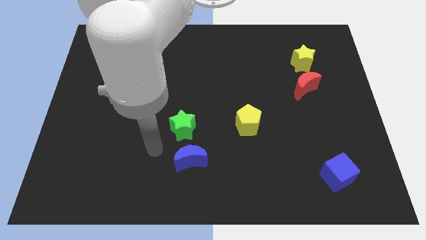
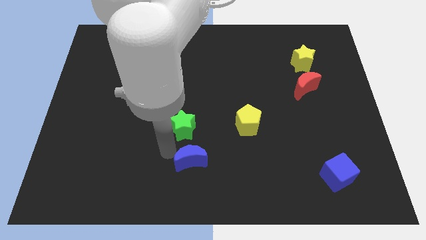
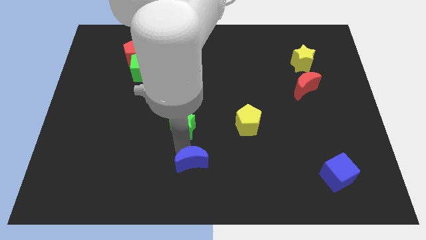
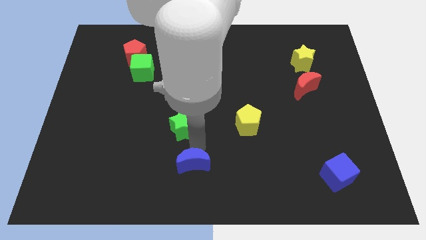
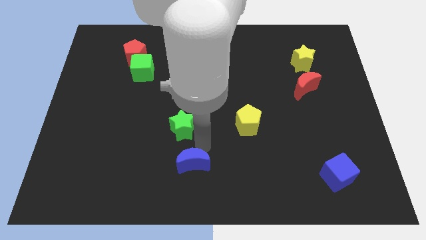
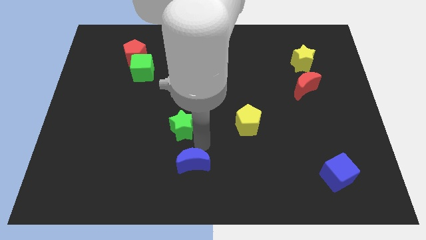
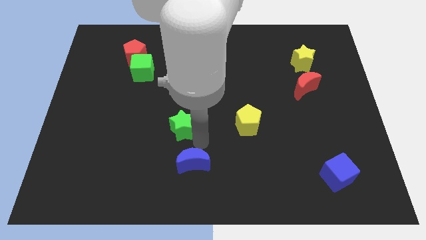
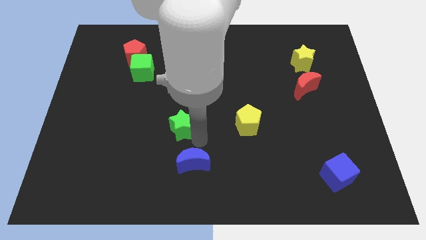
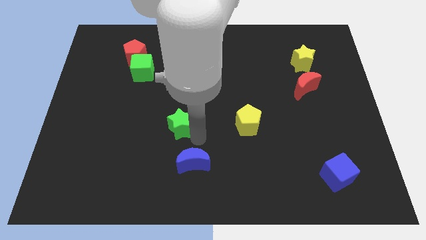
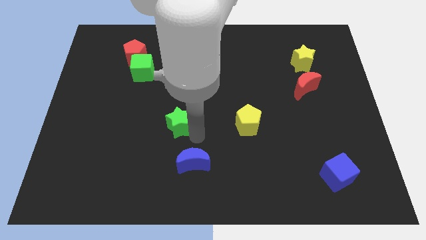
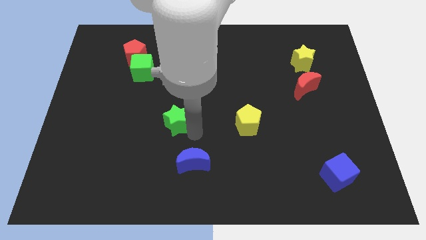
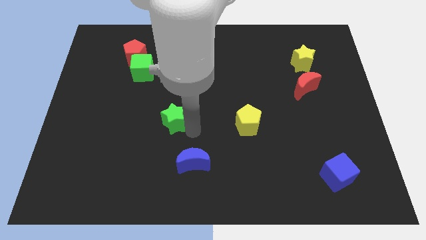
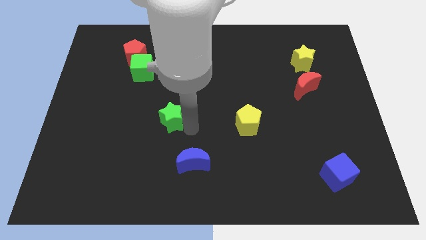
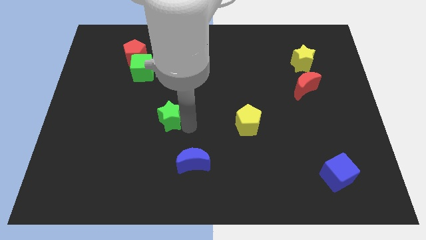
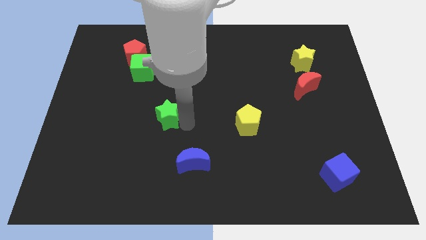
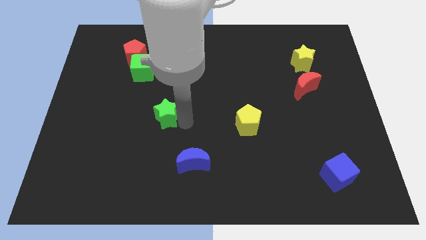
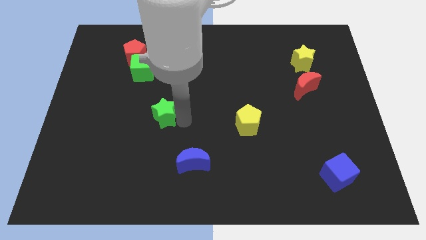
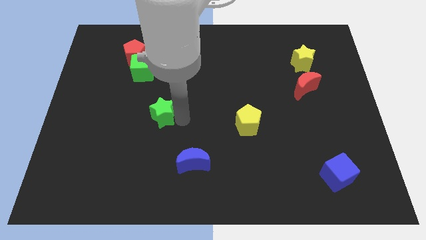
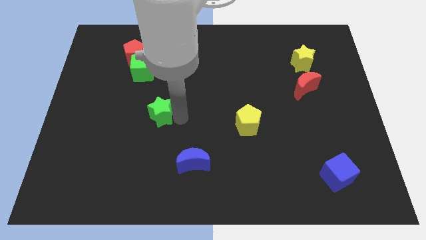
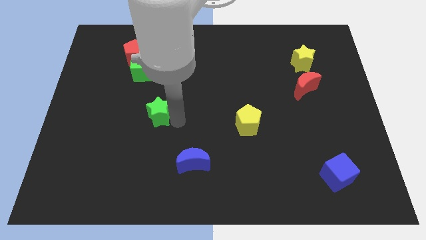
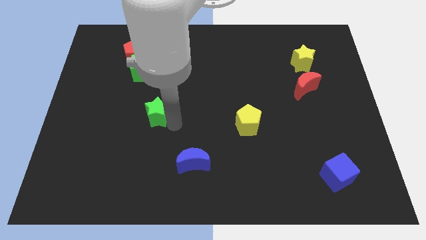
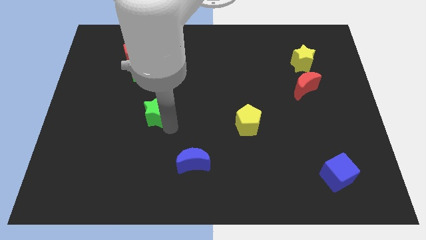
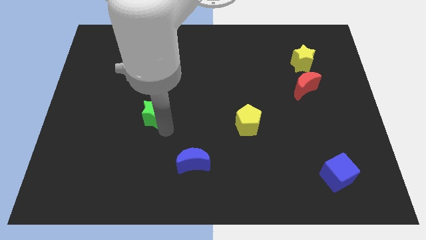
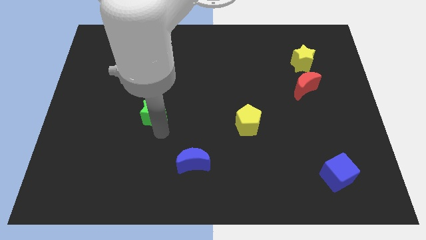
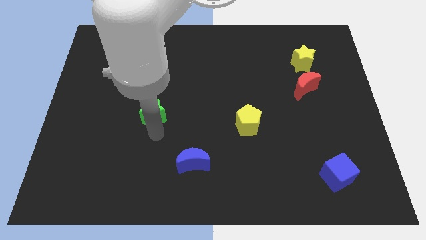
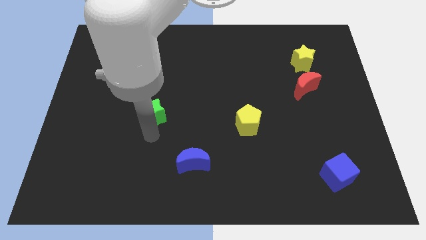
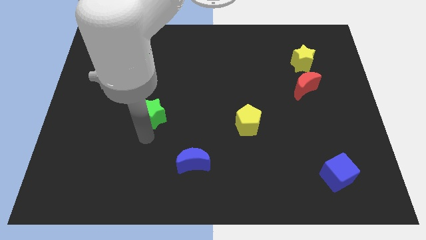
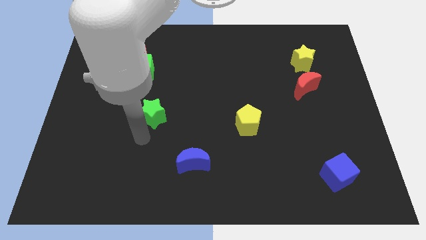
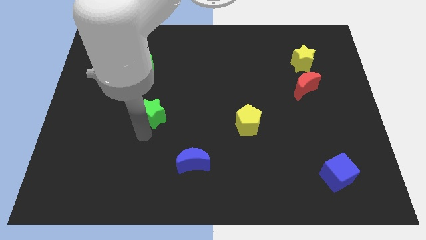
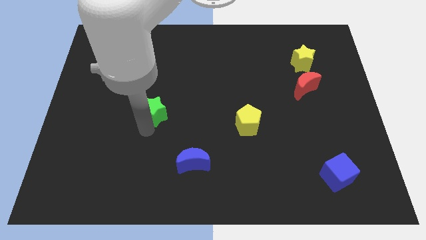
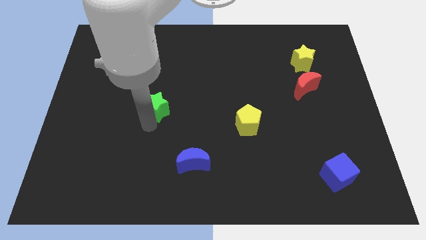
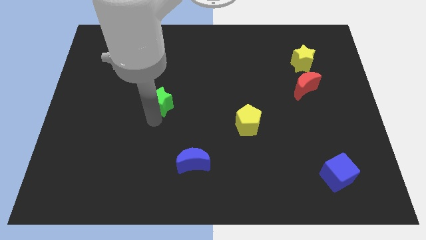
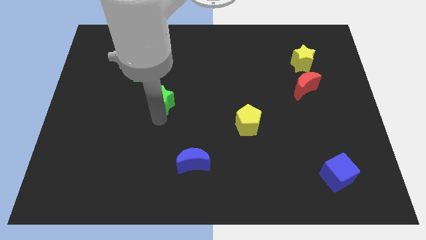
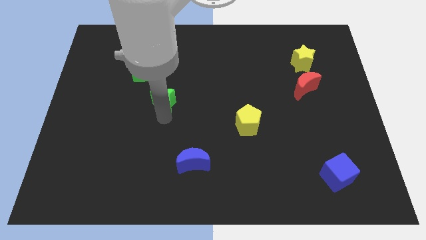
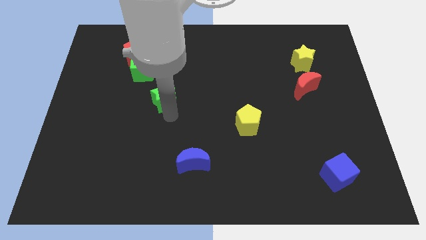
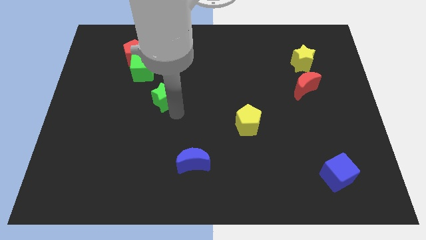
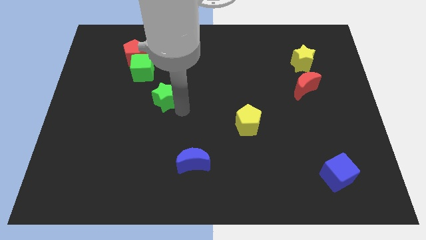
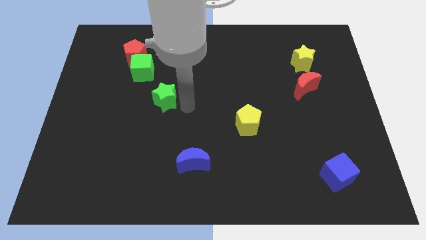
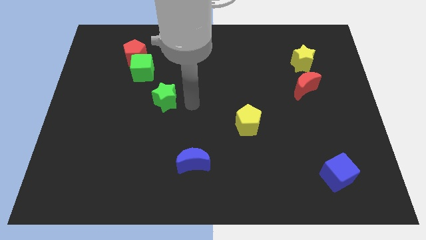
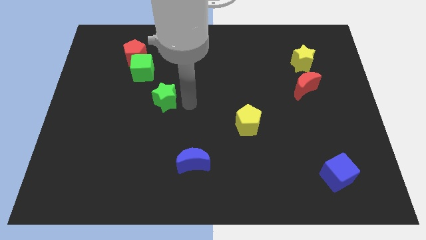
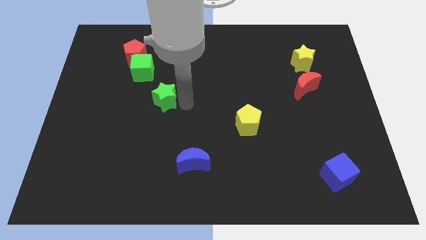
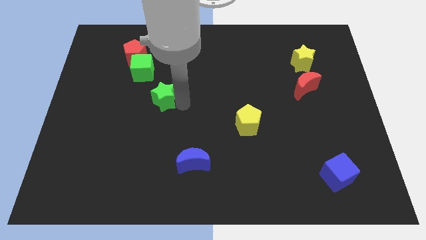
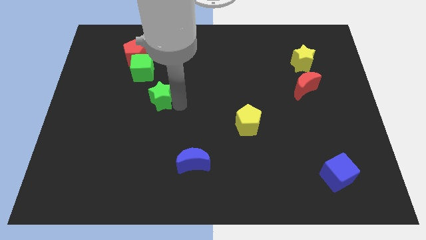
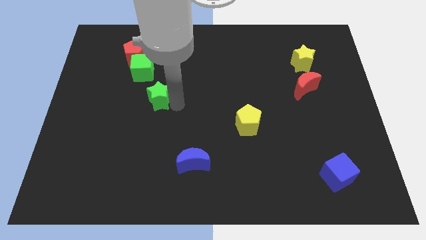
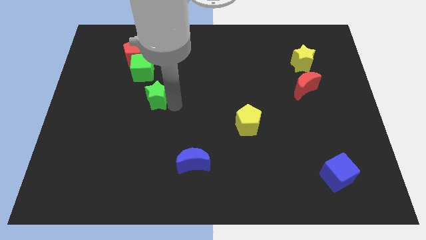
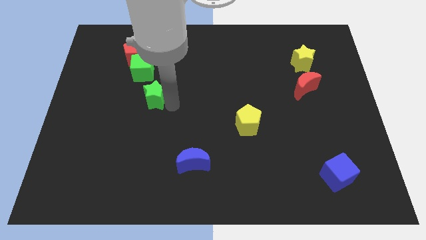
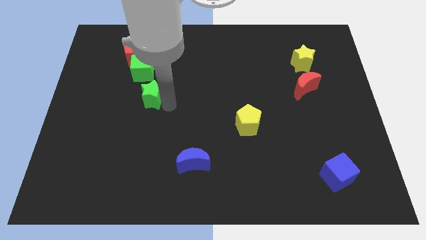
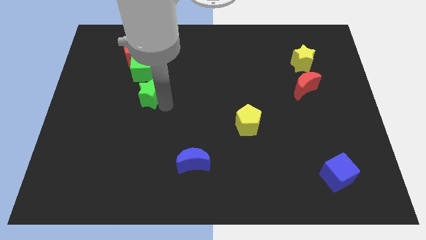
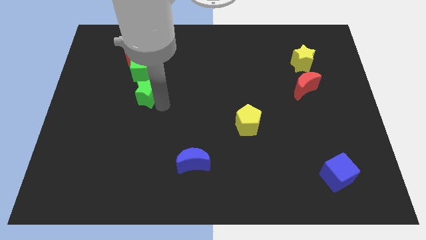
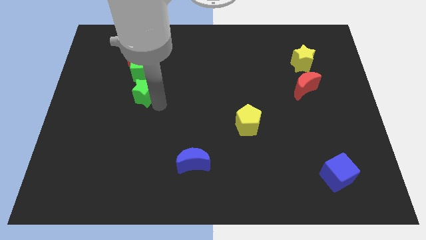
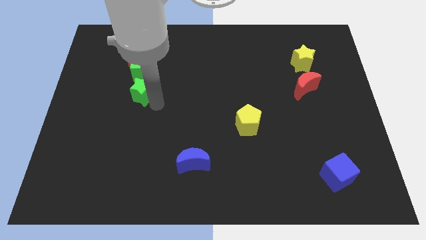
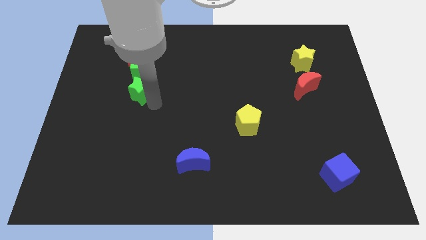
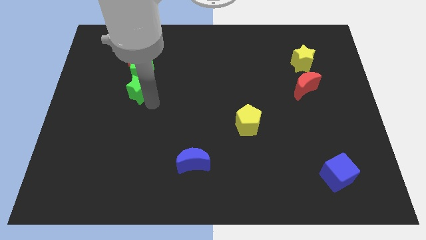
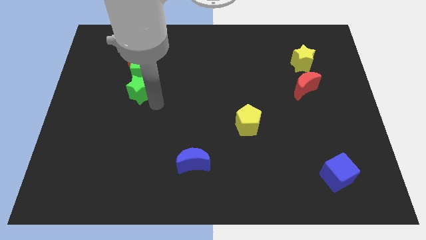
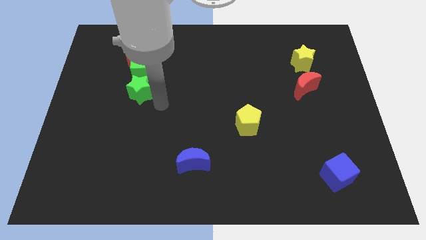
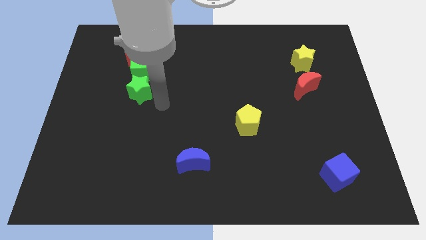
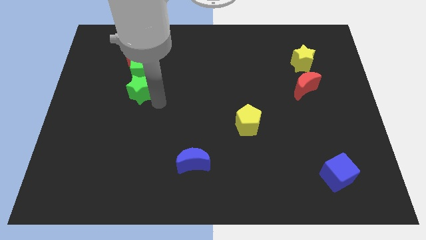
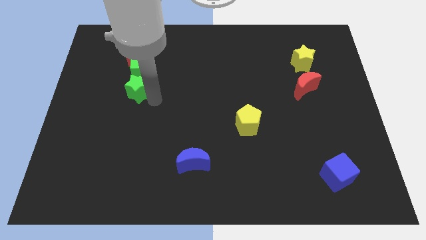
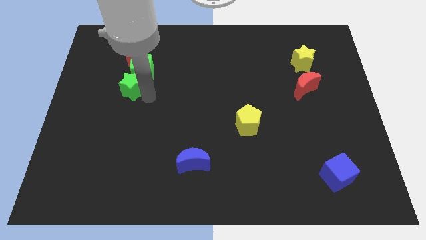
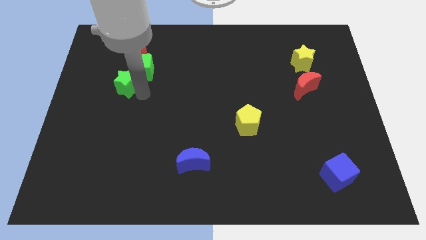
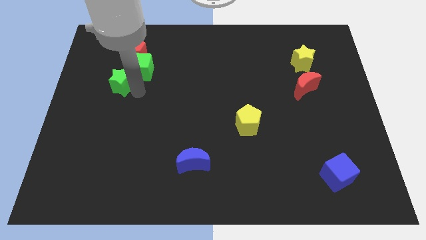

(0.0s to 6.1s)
move the green star to the left of the green cube

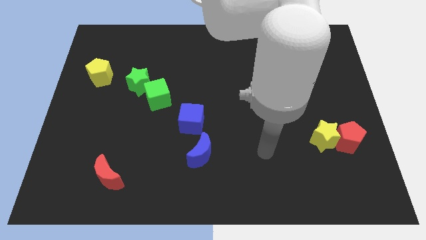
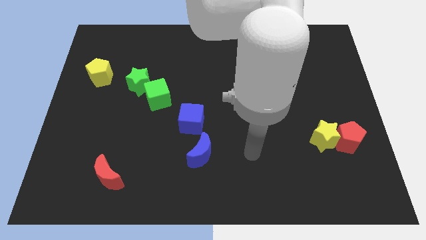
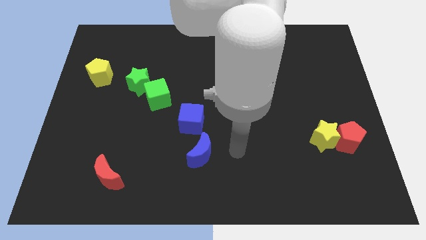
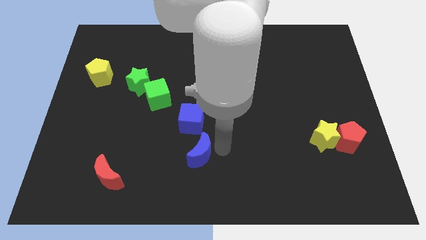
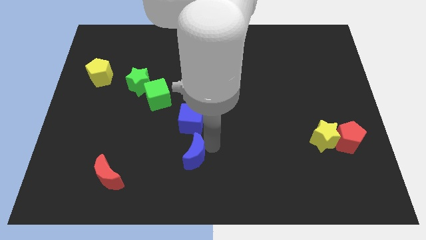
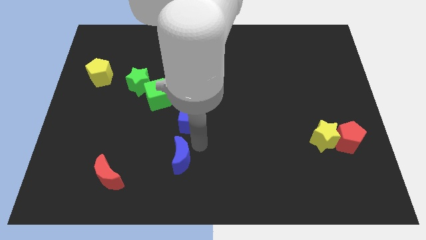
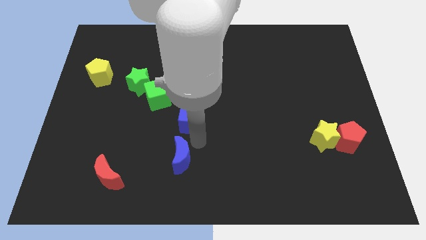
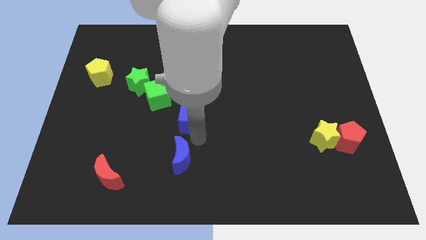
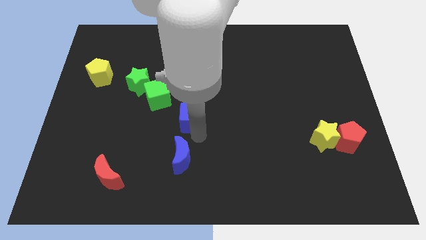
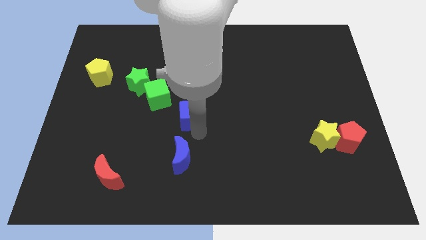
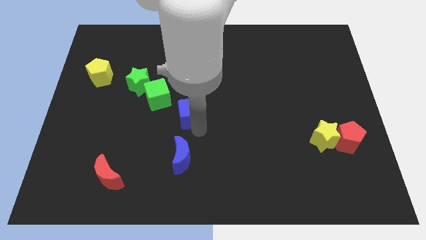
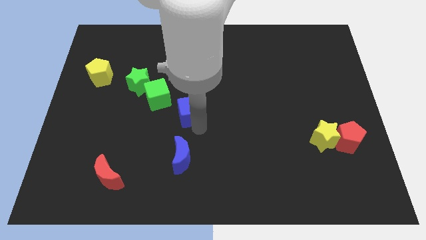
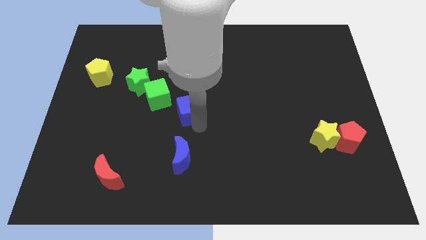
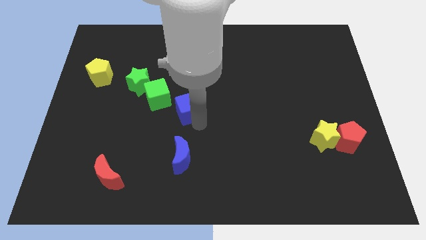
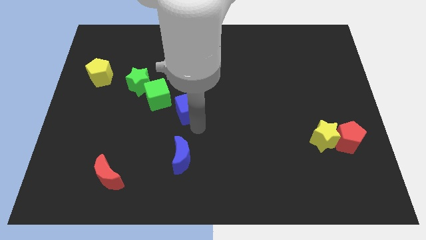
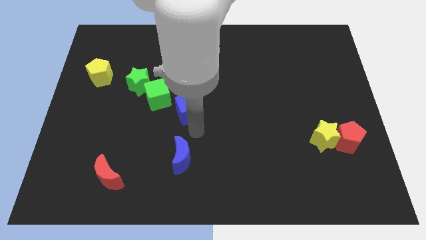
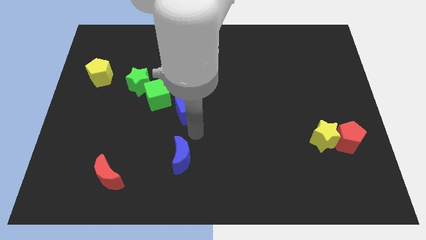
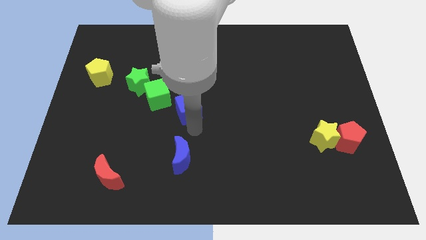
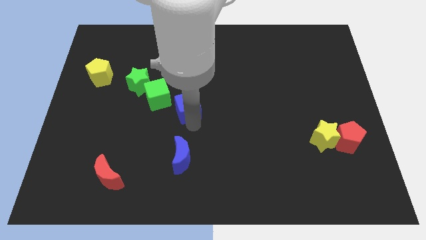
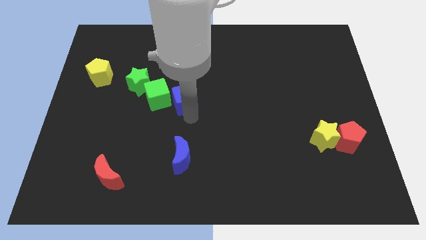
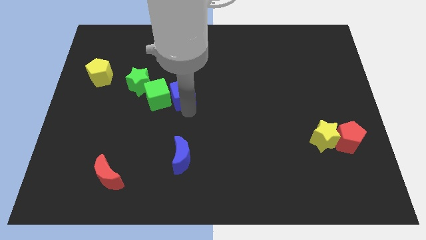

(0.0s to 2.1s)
put the blue cube to the top right side of the green cube
